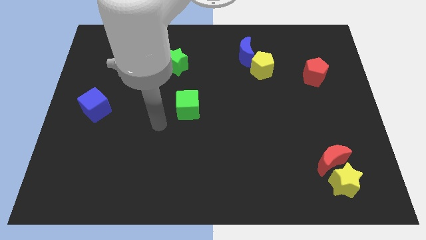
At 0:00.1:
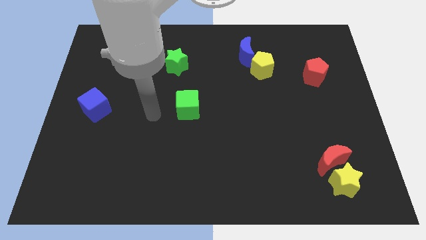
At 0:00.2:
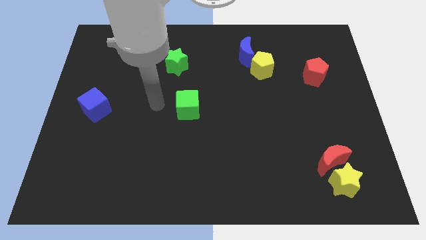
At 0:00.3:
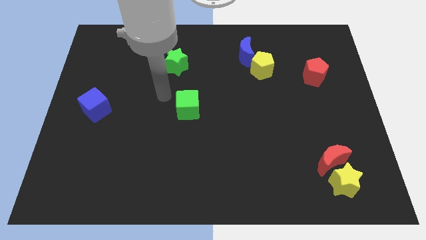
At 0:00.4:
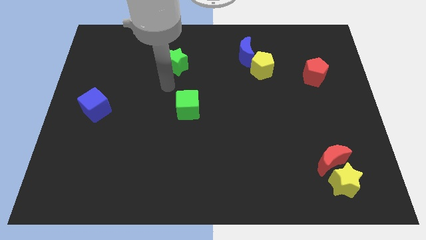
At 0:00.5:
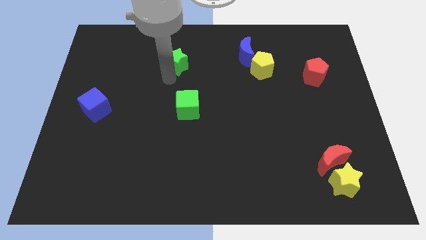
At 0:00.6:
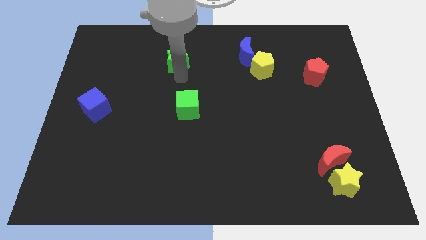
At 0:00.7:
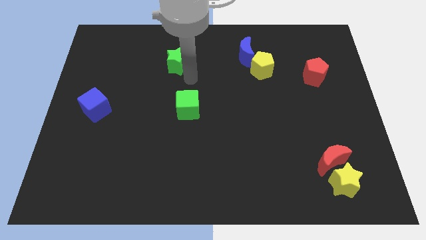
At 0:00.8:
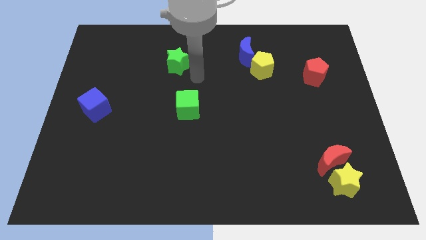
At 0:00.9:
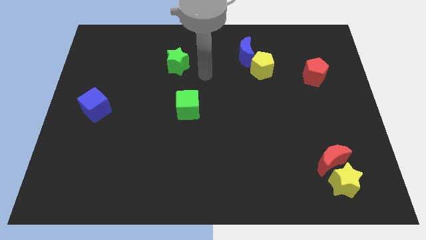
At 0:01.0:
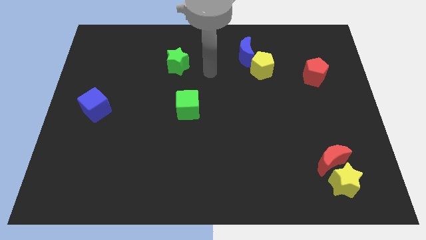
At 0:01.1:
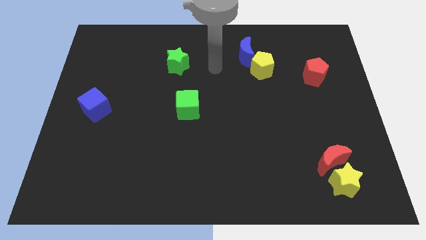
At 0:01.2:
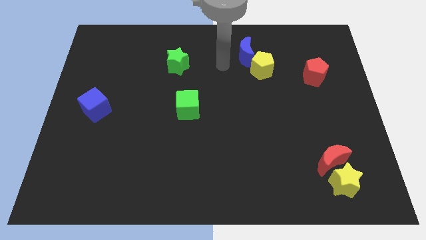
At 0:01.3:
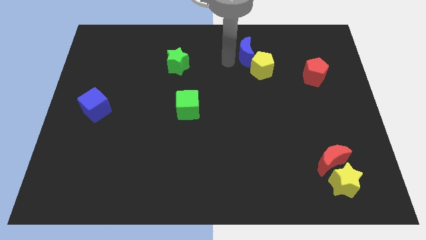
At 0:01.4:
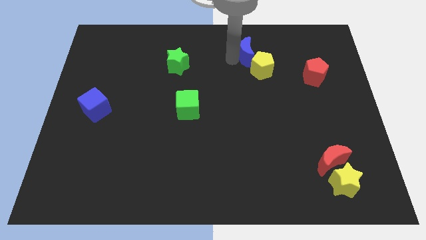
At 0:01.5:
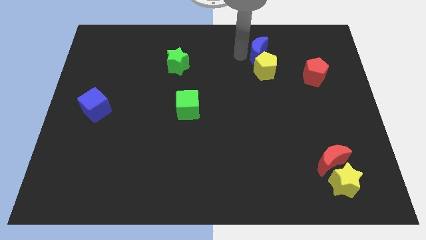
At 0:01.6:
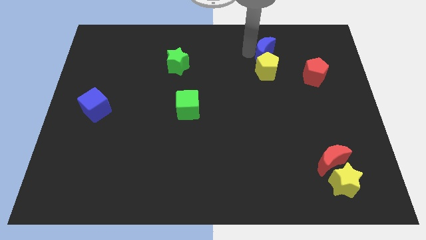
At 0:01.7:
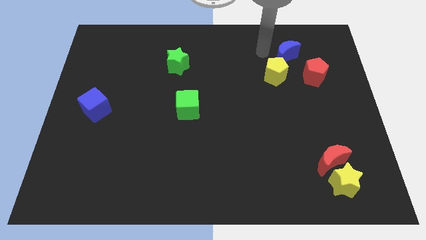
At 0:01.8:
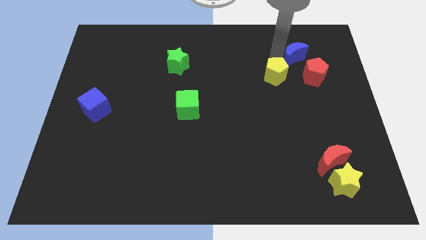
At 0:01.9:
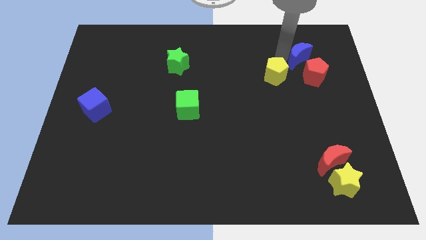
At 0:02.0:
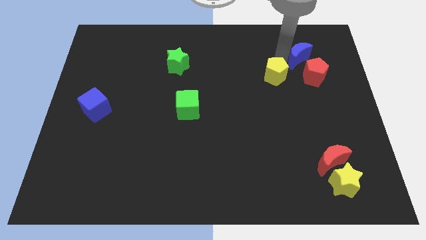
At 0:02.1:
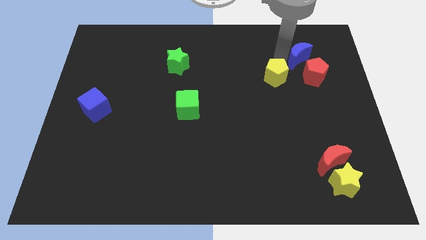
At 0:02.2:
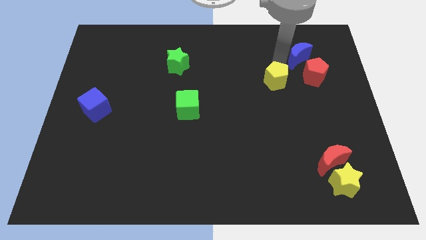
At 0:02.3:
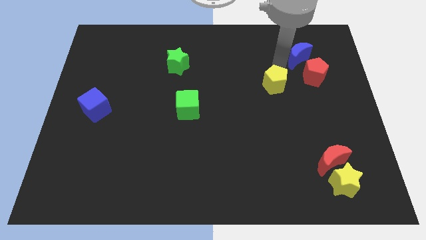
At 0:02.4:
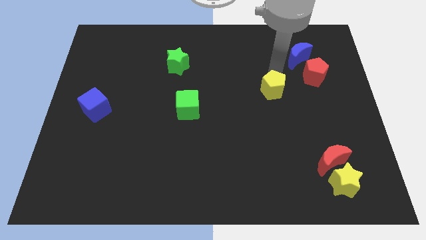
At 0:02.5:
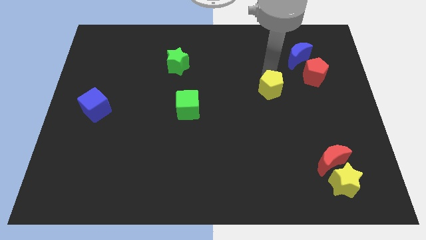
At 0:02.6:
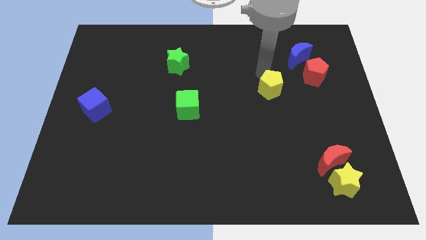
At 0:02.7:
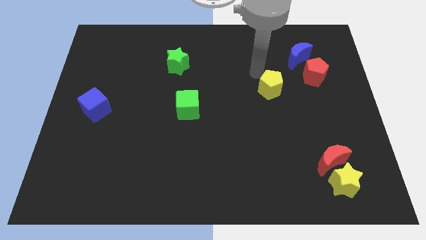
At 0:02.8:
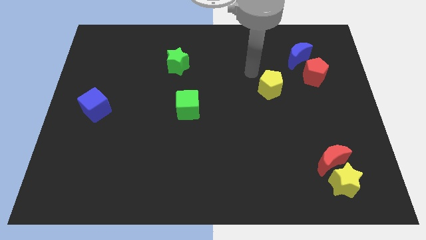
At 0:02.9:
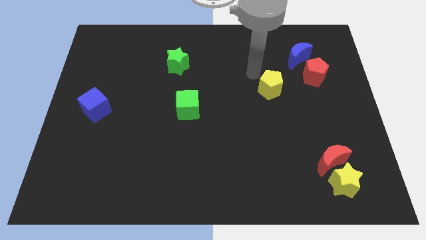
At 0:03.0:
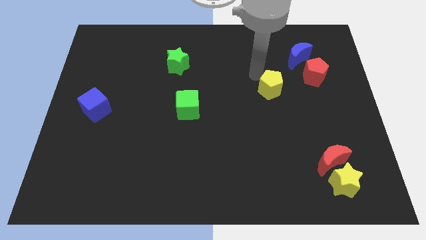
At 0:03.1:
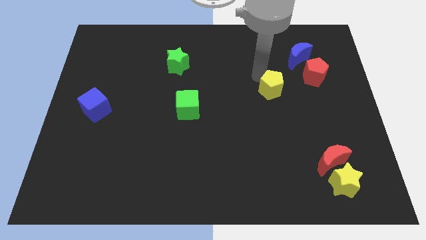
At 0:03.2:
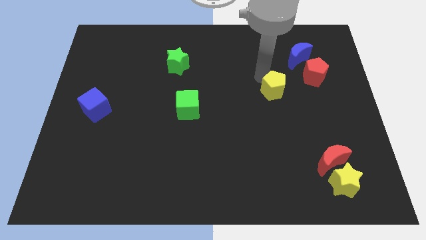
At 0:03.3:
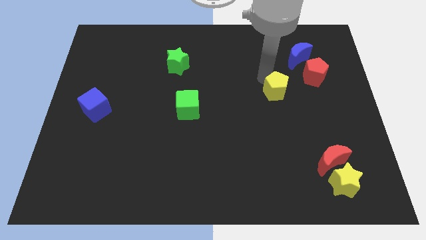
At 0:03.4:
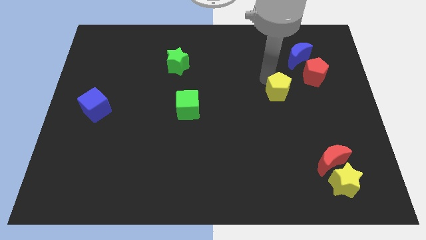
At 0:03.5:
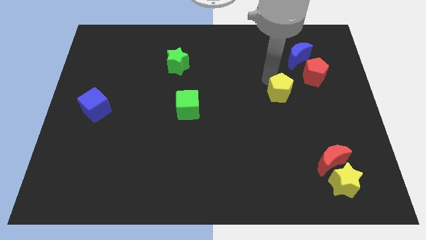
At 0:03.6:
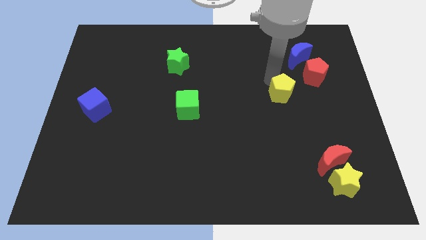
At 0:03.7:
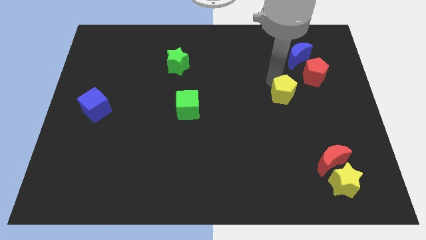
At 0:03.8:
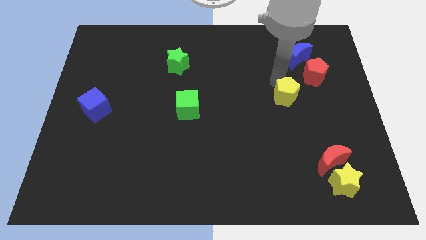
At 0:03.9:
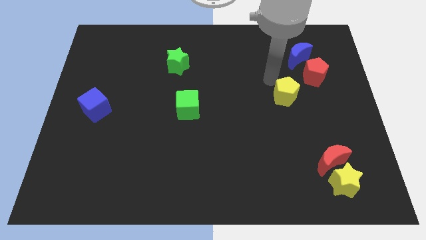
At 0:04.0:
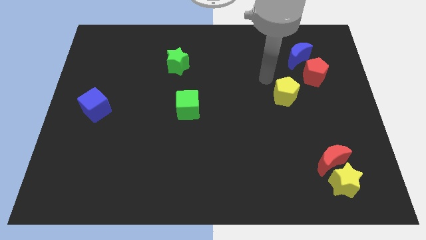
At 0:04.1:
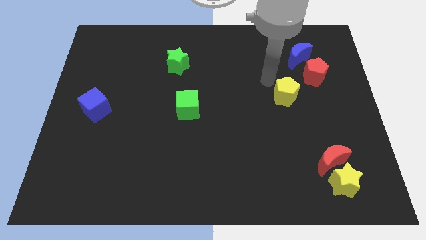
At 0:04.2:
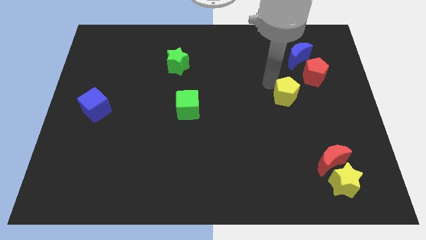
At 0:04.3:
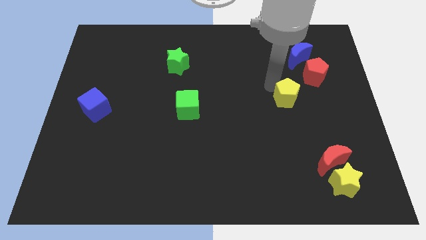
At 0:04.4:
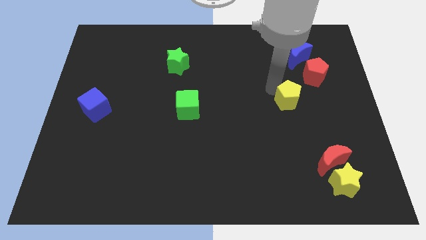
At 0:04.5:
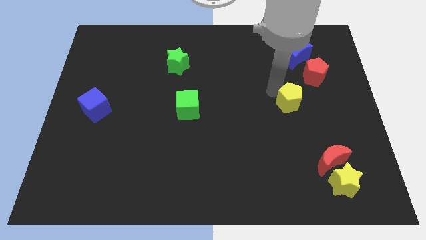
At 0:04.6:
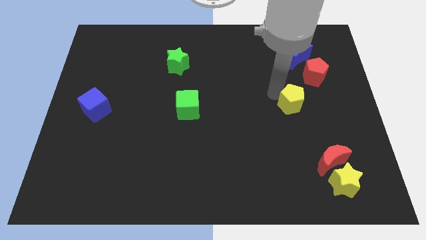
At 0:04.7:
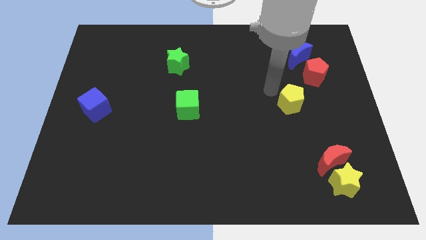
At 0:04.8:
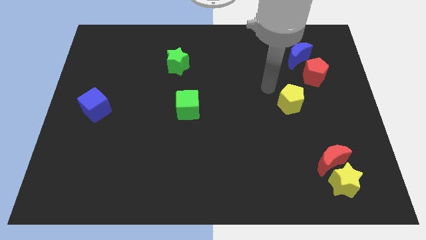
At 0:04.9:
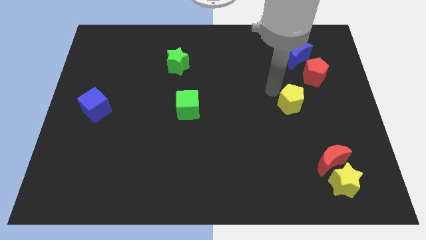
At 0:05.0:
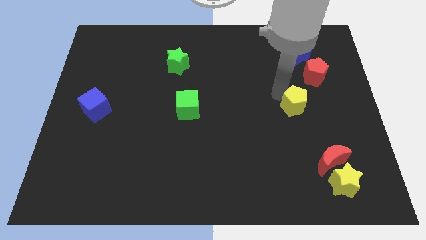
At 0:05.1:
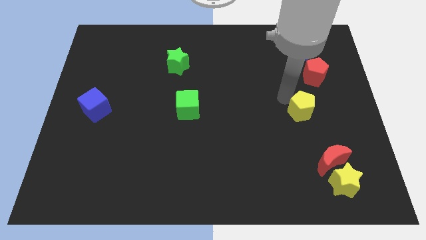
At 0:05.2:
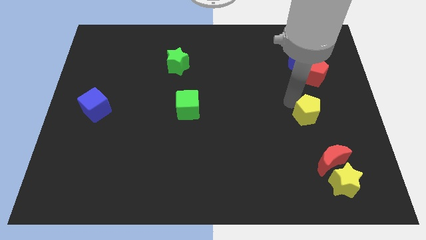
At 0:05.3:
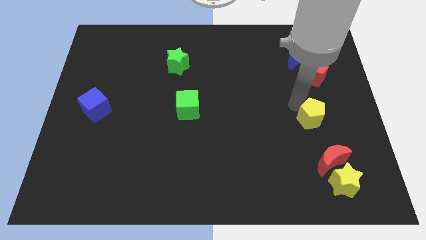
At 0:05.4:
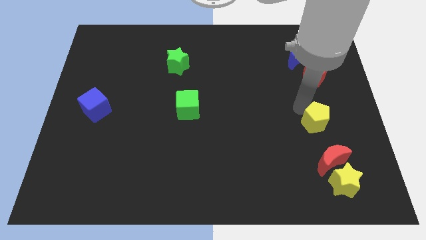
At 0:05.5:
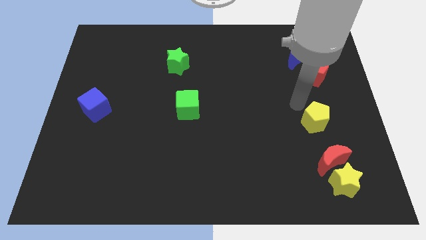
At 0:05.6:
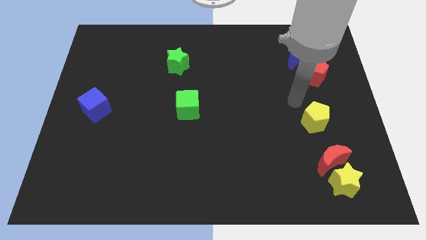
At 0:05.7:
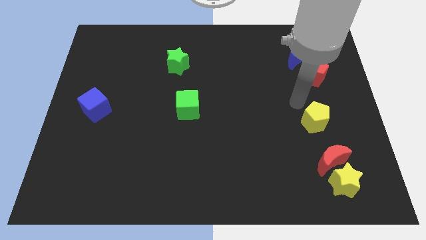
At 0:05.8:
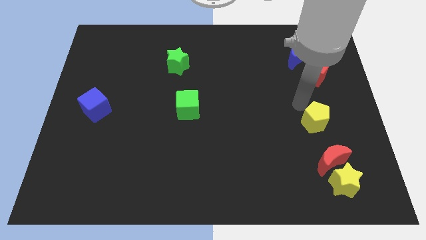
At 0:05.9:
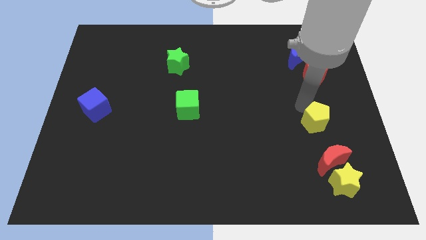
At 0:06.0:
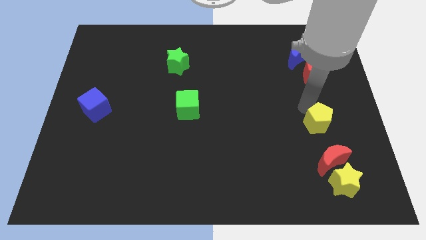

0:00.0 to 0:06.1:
put the yellow pentagon to the top side of the yellow star

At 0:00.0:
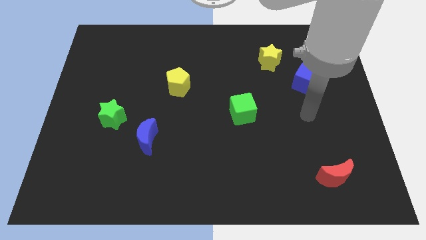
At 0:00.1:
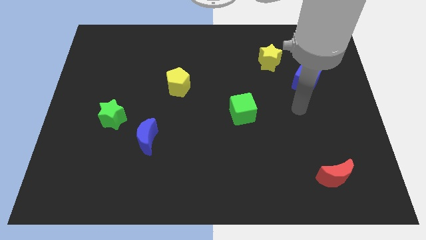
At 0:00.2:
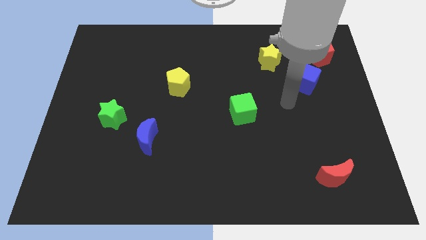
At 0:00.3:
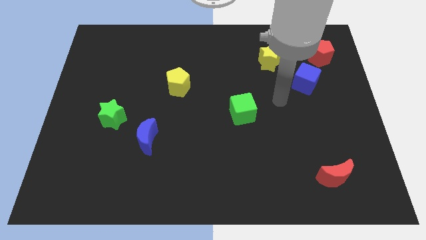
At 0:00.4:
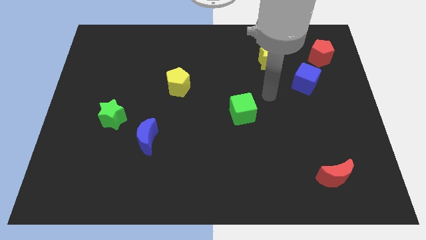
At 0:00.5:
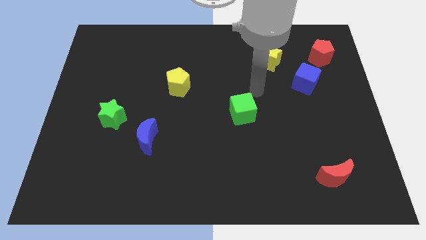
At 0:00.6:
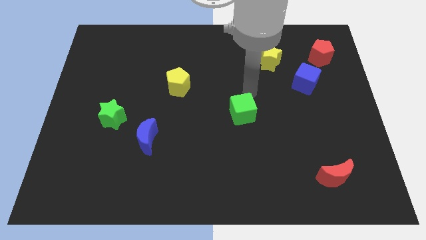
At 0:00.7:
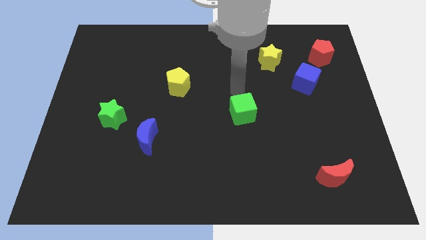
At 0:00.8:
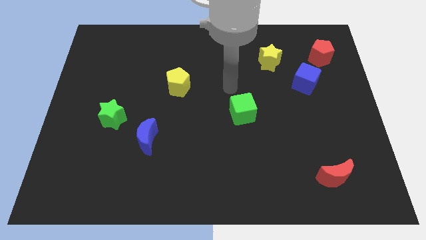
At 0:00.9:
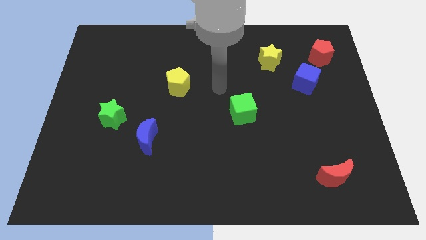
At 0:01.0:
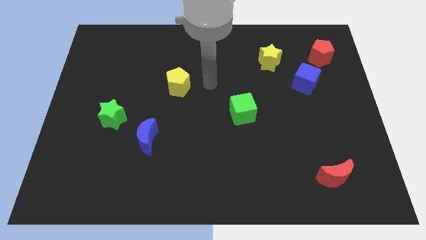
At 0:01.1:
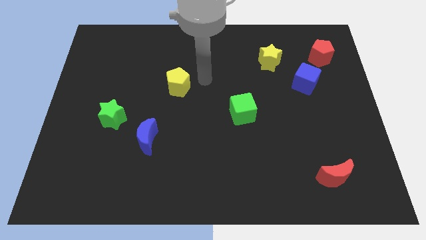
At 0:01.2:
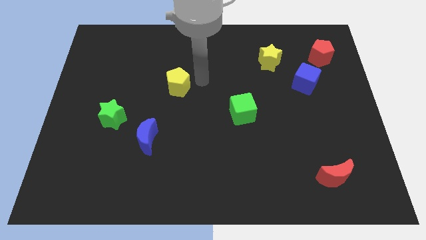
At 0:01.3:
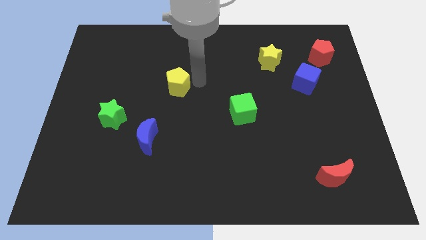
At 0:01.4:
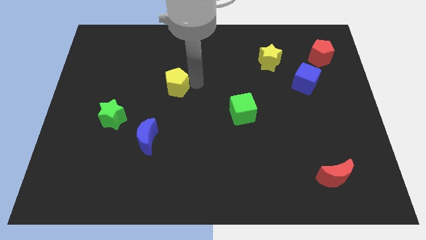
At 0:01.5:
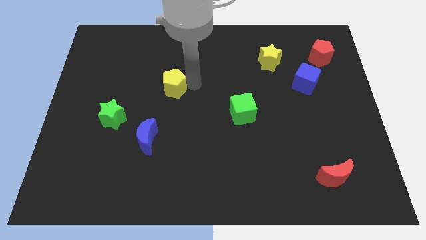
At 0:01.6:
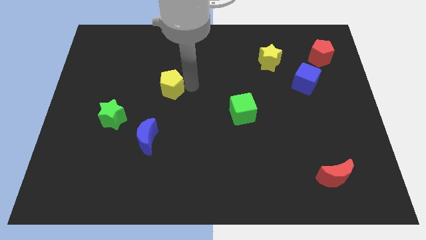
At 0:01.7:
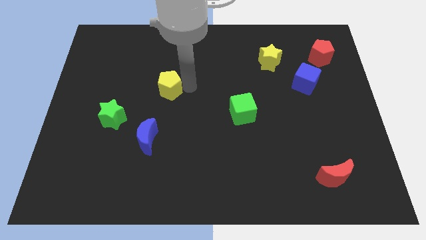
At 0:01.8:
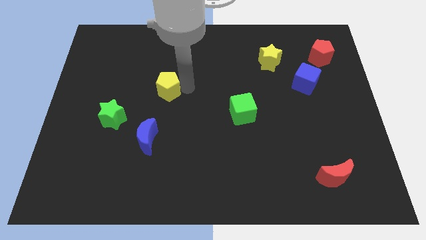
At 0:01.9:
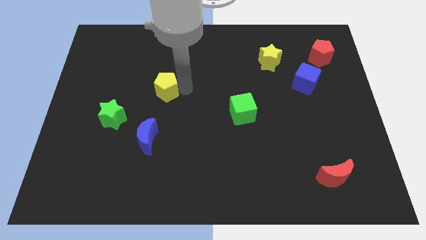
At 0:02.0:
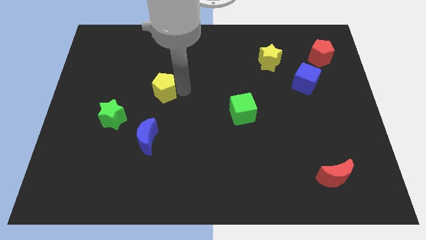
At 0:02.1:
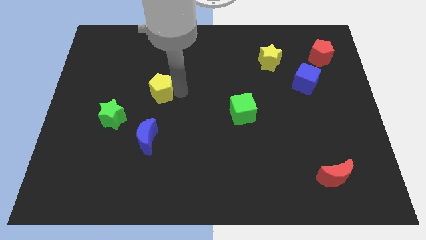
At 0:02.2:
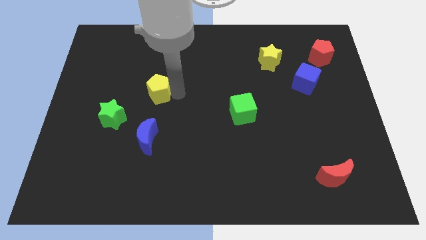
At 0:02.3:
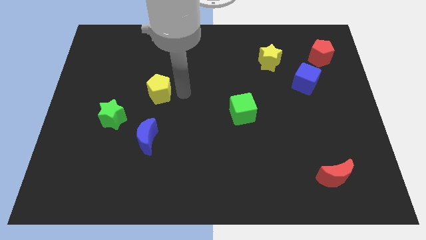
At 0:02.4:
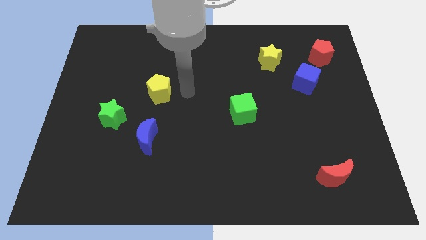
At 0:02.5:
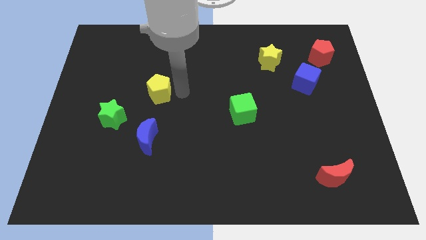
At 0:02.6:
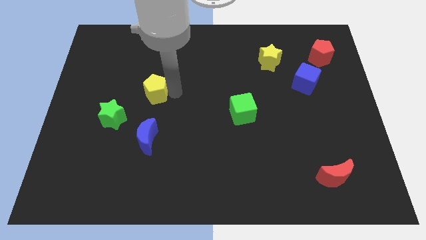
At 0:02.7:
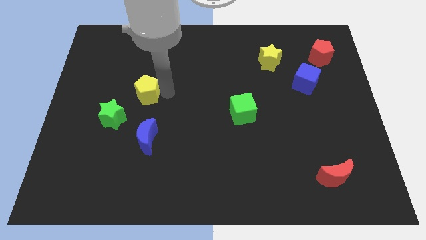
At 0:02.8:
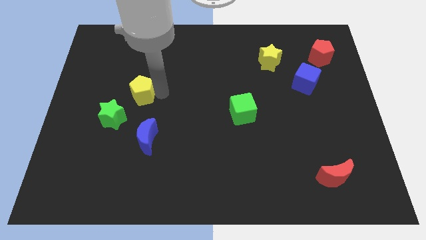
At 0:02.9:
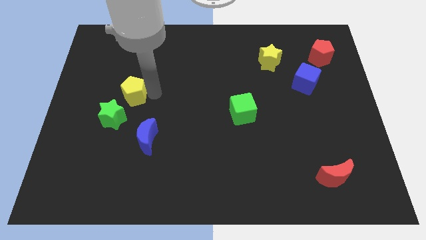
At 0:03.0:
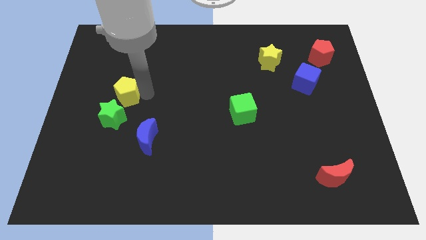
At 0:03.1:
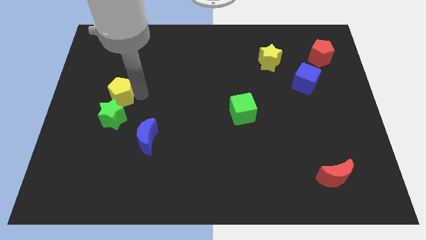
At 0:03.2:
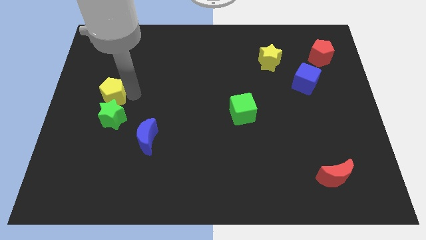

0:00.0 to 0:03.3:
move the yellow pentagon to the top left side of the green star
